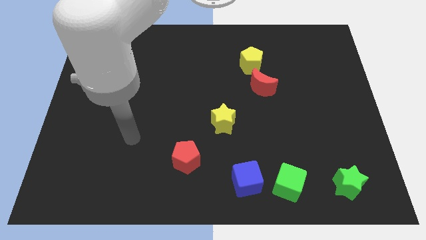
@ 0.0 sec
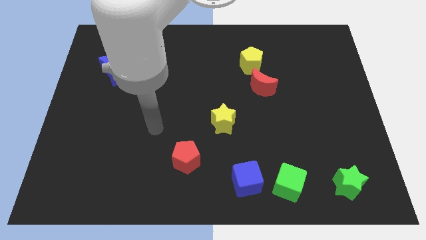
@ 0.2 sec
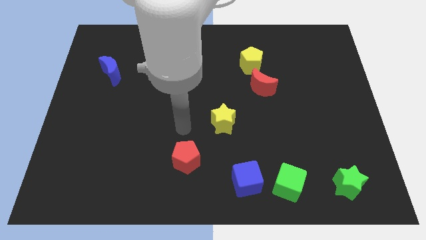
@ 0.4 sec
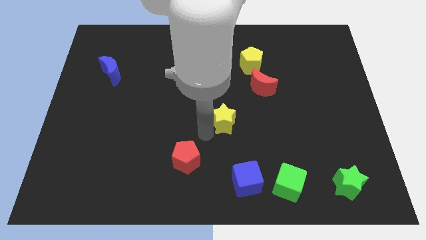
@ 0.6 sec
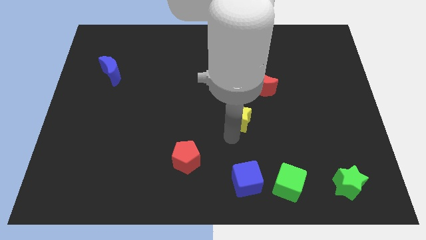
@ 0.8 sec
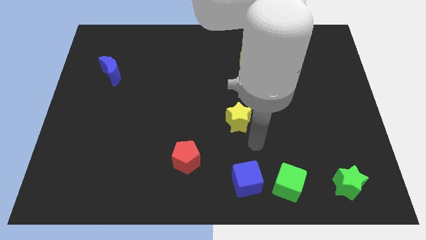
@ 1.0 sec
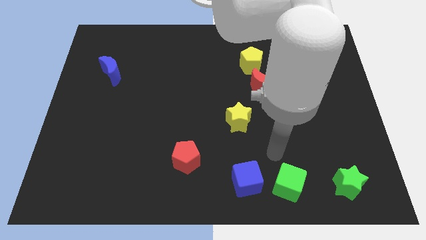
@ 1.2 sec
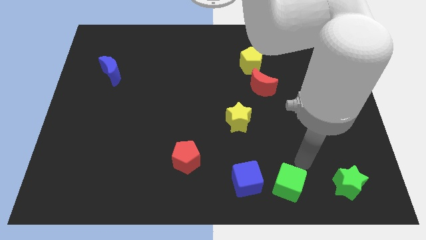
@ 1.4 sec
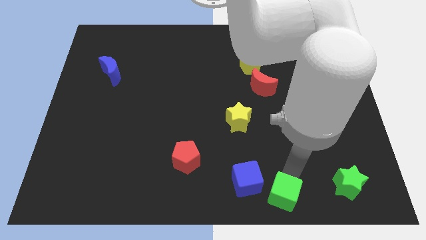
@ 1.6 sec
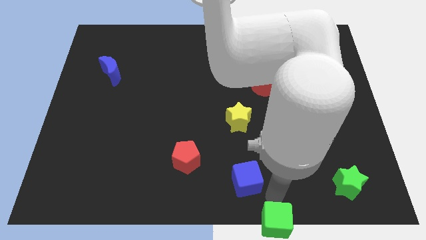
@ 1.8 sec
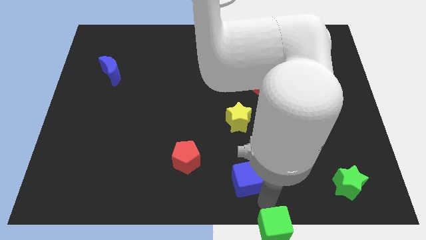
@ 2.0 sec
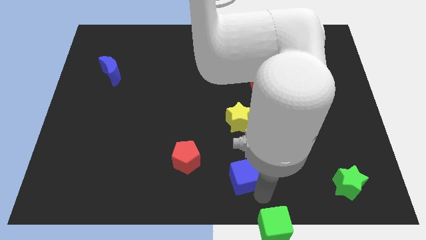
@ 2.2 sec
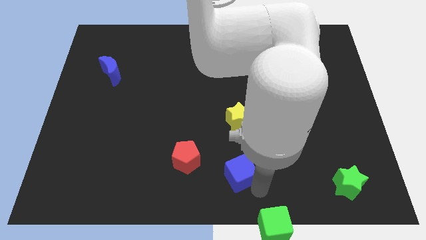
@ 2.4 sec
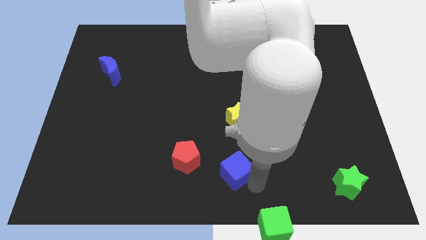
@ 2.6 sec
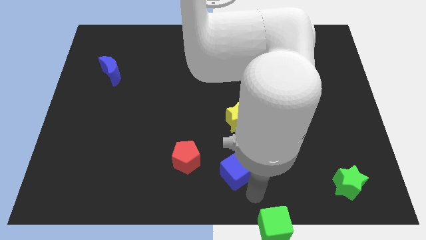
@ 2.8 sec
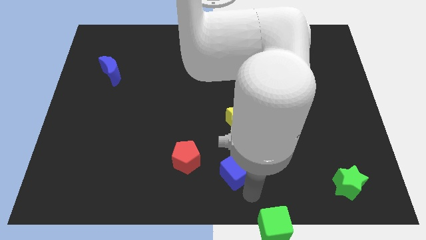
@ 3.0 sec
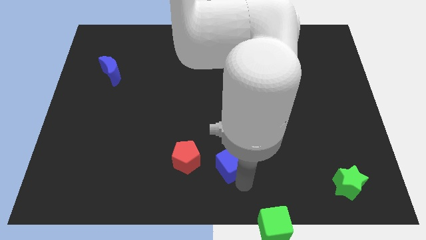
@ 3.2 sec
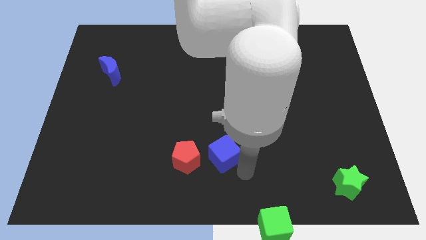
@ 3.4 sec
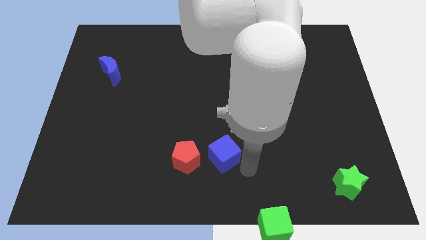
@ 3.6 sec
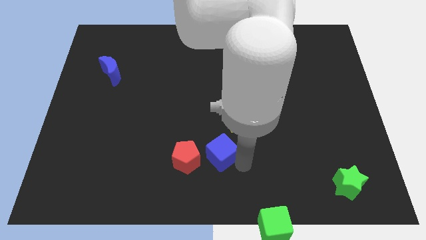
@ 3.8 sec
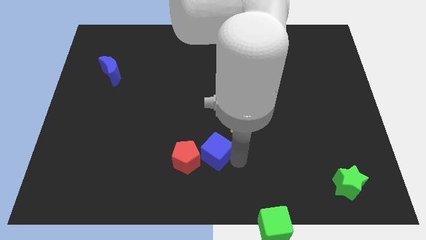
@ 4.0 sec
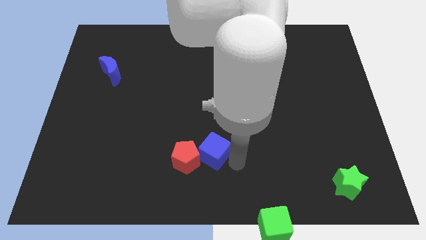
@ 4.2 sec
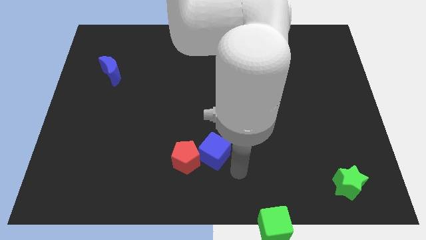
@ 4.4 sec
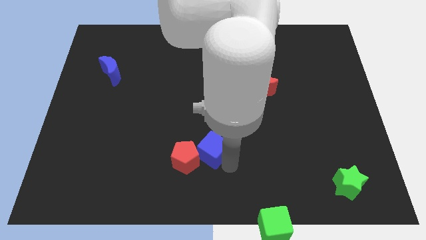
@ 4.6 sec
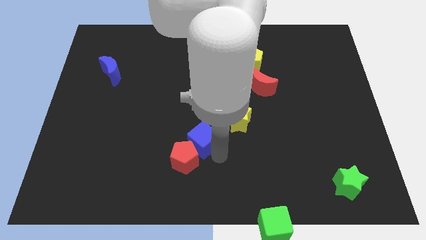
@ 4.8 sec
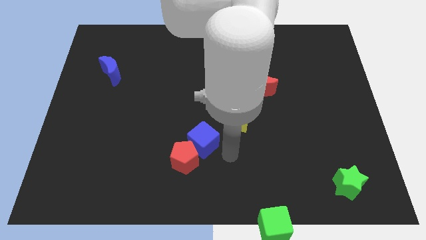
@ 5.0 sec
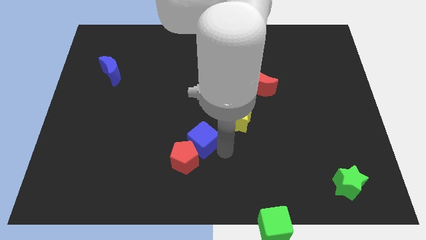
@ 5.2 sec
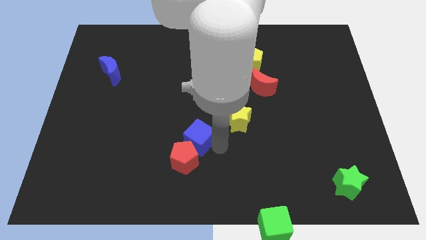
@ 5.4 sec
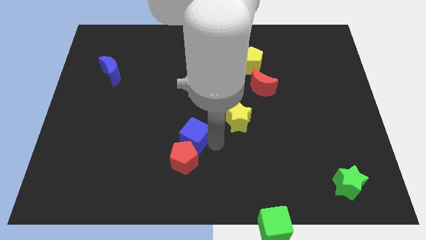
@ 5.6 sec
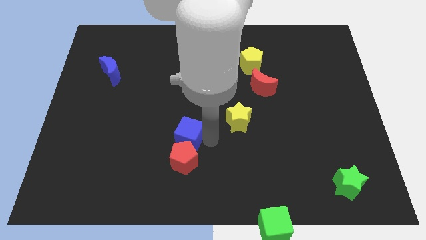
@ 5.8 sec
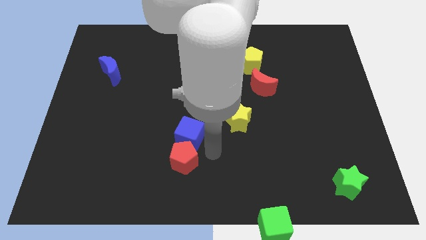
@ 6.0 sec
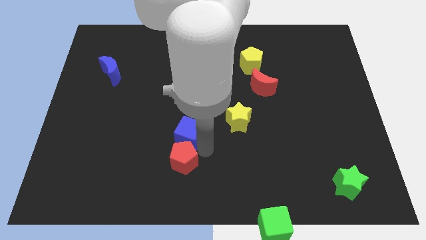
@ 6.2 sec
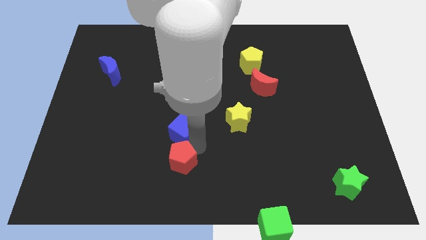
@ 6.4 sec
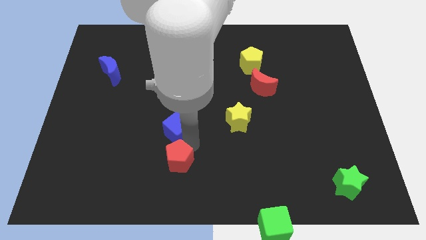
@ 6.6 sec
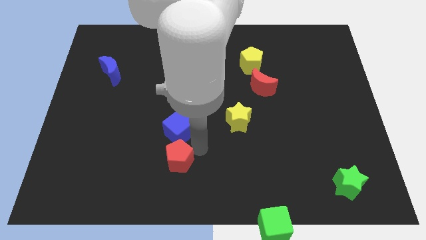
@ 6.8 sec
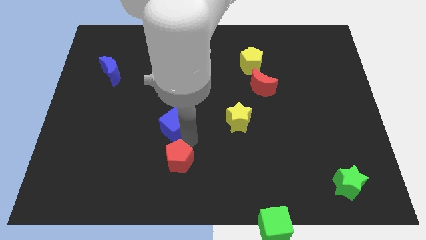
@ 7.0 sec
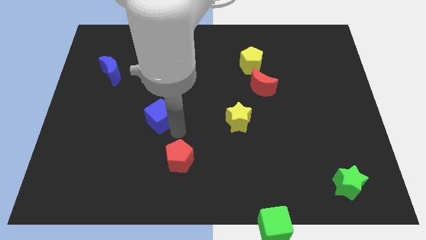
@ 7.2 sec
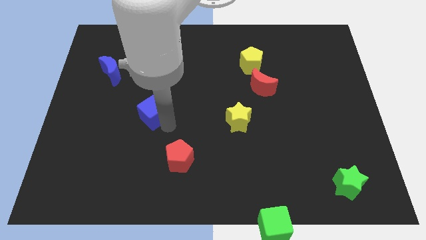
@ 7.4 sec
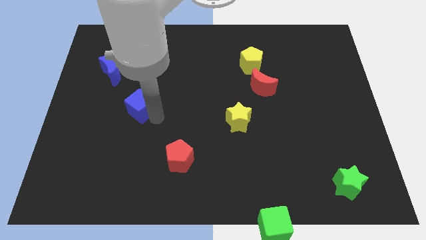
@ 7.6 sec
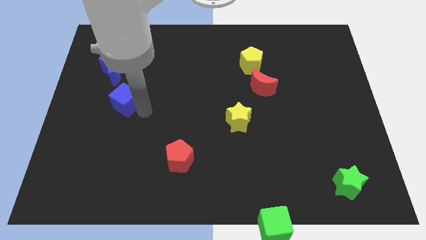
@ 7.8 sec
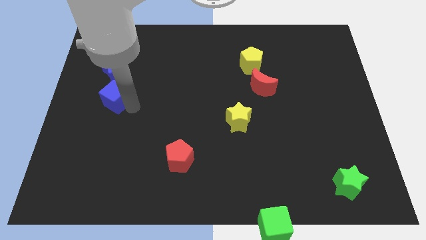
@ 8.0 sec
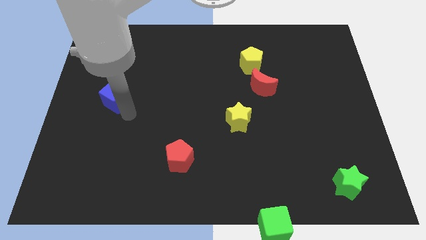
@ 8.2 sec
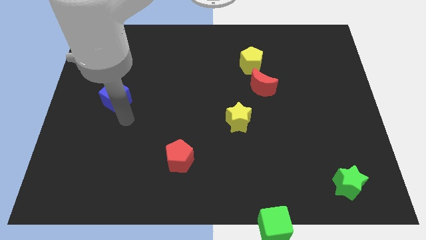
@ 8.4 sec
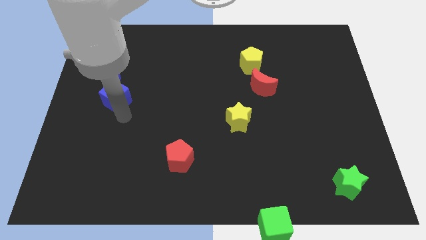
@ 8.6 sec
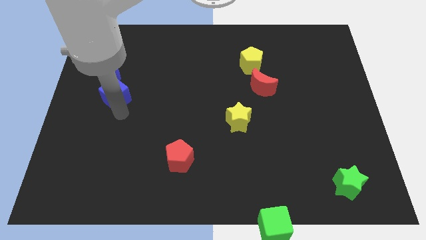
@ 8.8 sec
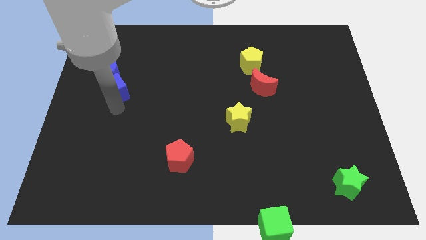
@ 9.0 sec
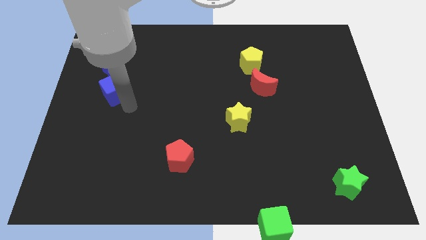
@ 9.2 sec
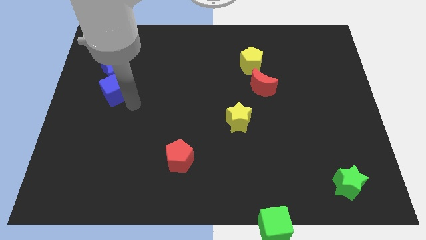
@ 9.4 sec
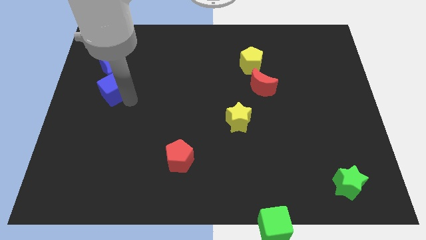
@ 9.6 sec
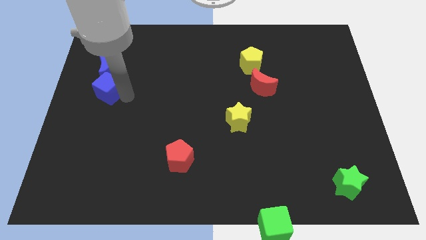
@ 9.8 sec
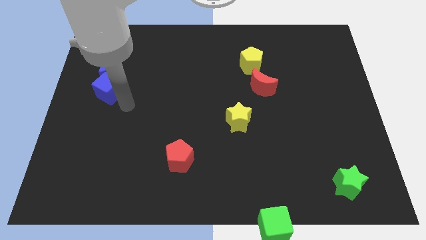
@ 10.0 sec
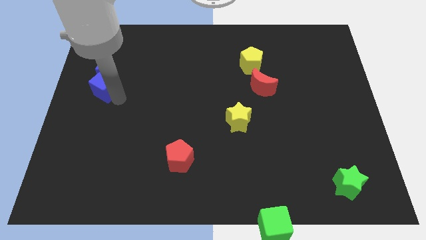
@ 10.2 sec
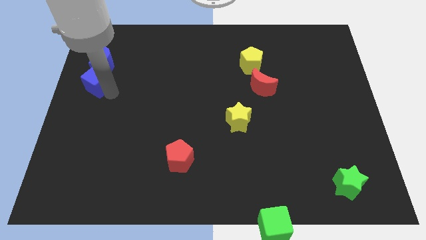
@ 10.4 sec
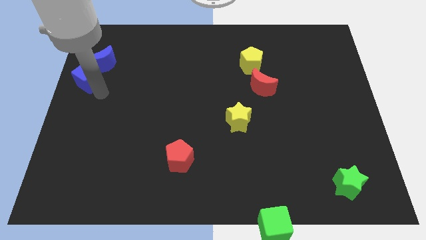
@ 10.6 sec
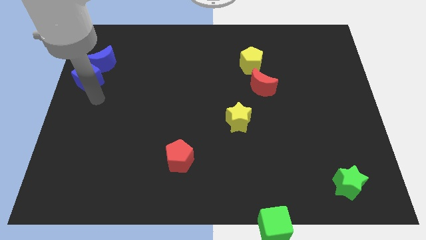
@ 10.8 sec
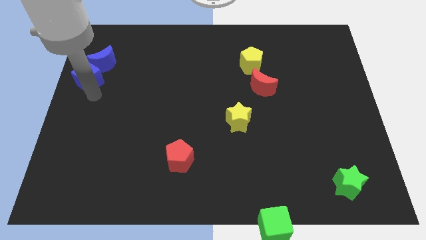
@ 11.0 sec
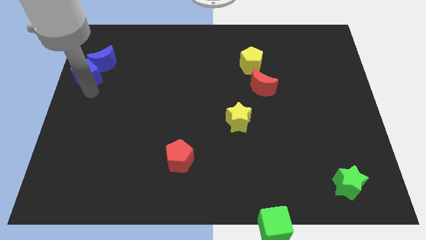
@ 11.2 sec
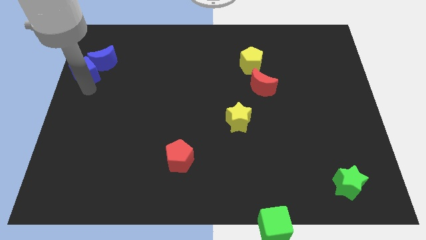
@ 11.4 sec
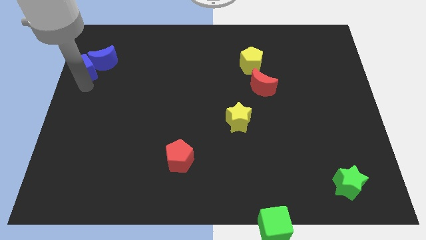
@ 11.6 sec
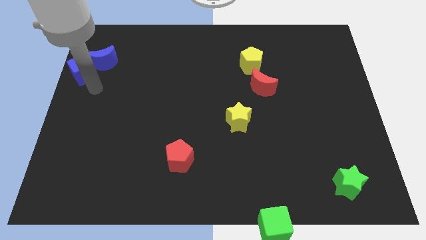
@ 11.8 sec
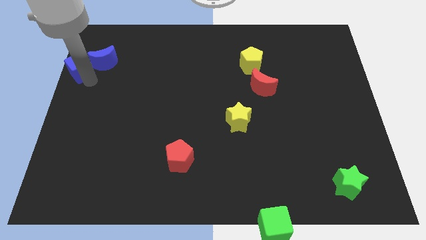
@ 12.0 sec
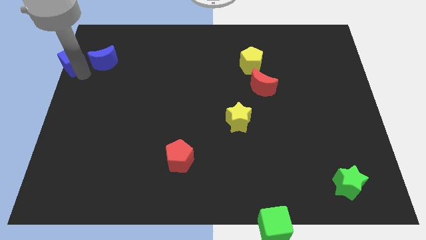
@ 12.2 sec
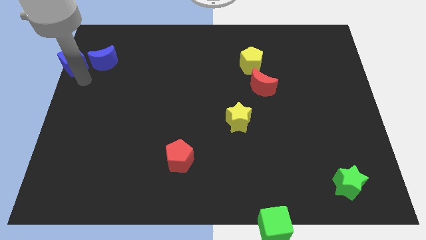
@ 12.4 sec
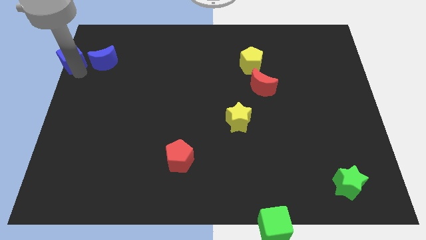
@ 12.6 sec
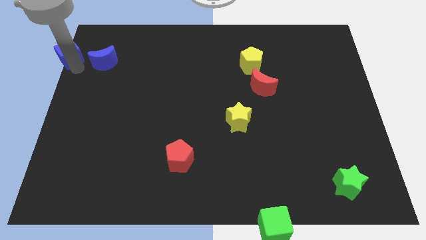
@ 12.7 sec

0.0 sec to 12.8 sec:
slide the blue cube to the top left corner
